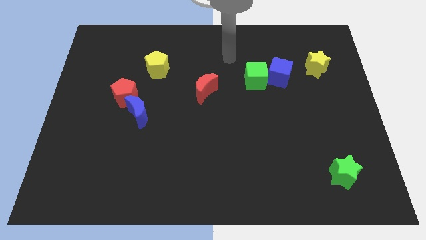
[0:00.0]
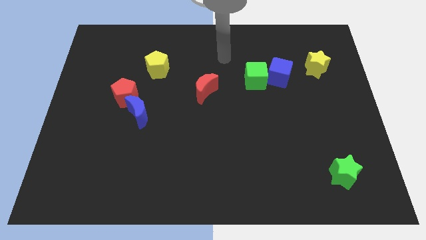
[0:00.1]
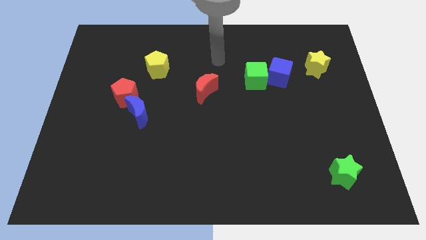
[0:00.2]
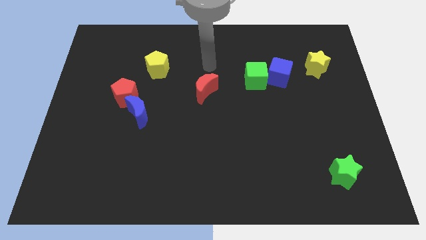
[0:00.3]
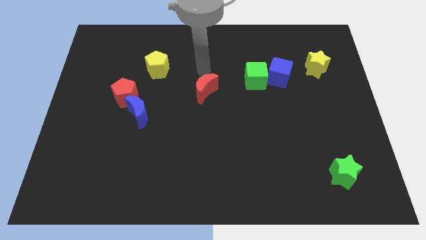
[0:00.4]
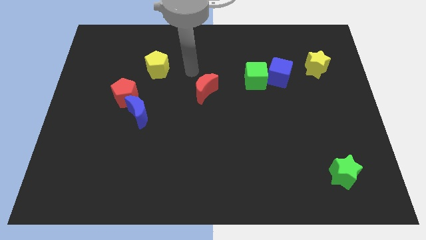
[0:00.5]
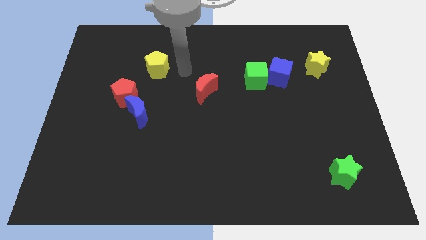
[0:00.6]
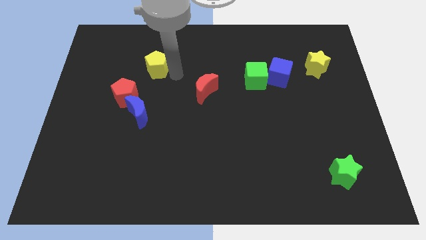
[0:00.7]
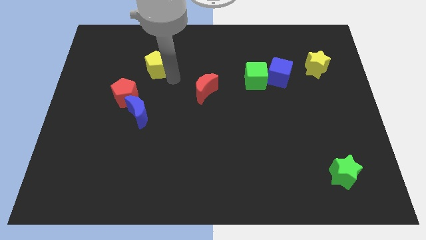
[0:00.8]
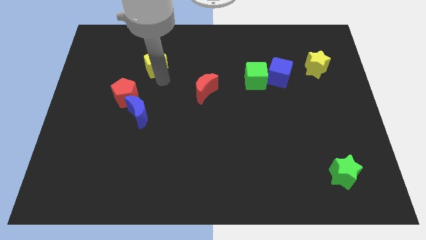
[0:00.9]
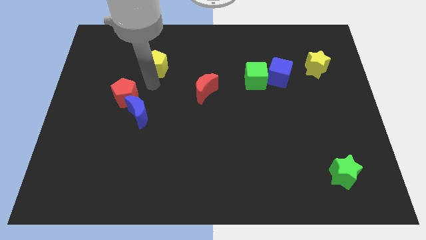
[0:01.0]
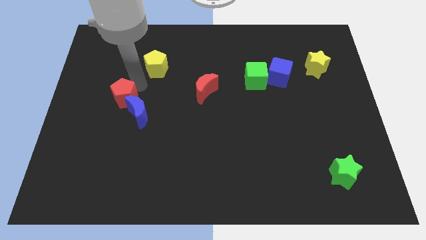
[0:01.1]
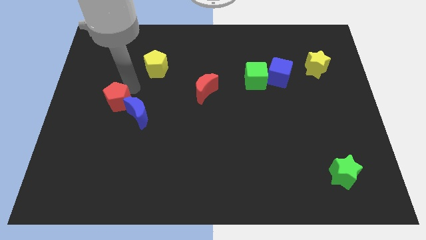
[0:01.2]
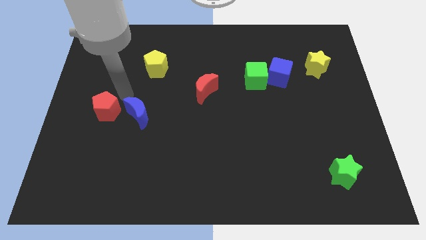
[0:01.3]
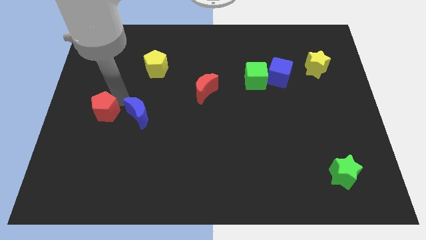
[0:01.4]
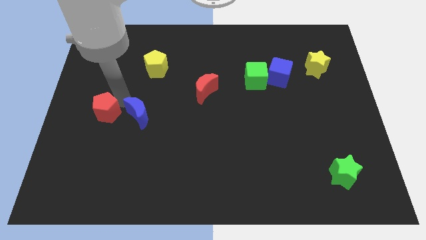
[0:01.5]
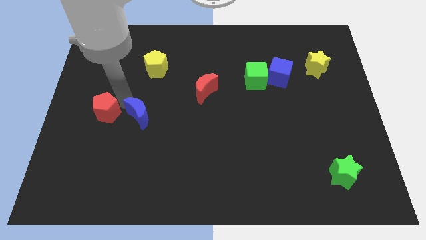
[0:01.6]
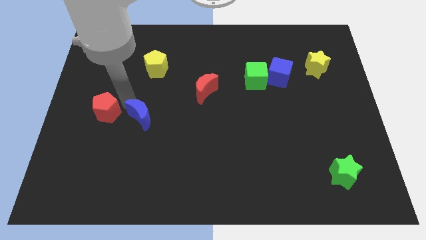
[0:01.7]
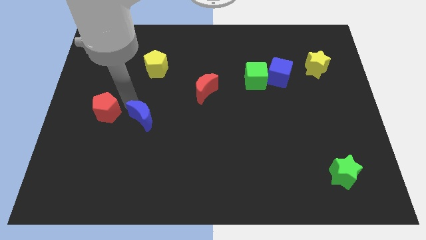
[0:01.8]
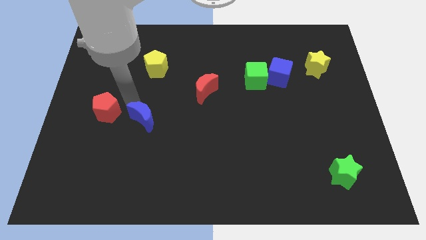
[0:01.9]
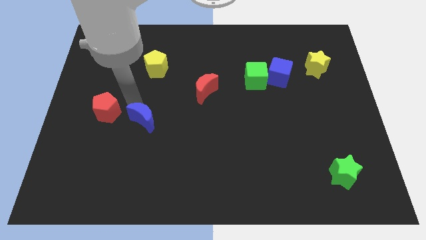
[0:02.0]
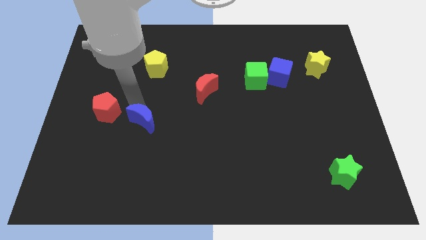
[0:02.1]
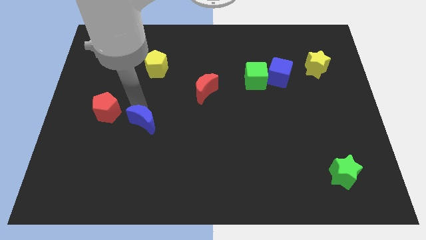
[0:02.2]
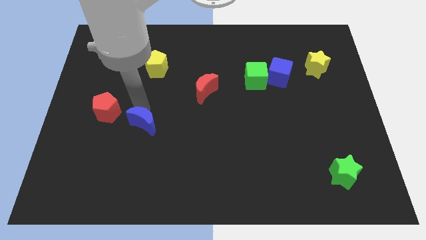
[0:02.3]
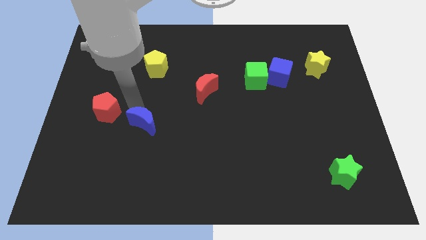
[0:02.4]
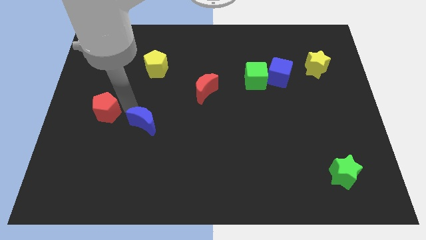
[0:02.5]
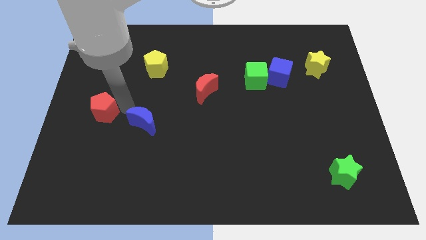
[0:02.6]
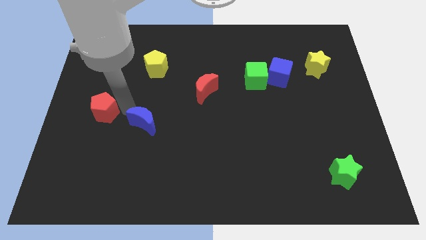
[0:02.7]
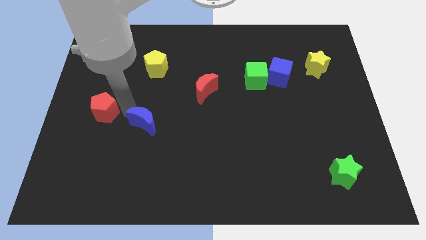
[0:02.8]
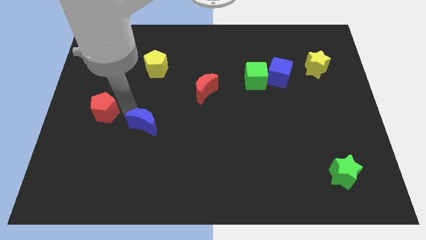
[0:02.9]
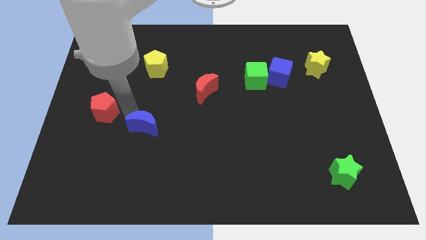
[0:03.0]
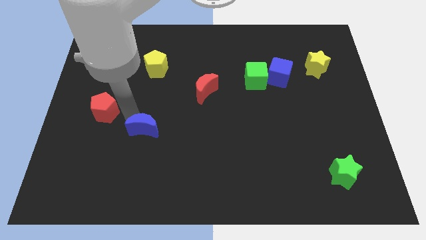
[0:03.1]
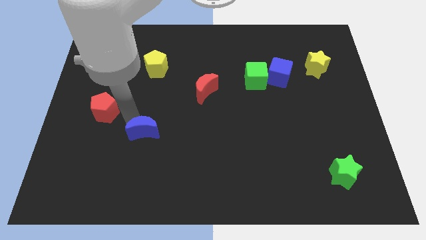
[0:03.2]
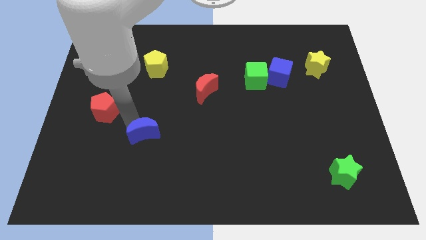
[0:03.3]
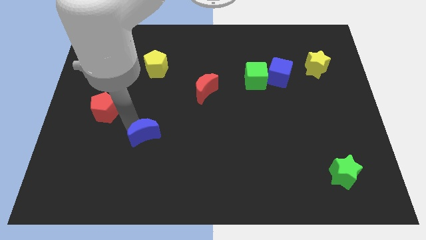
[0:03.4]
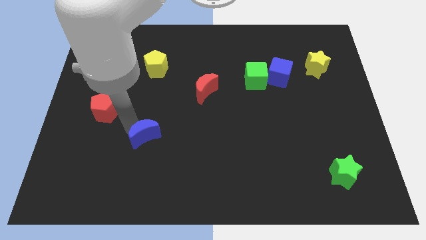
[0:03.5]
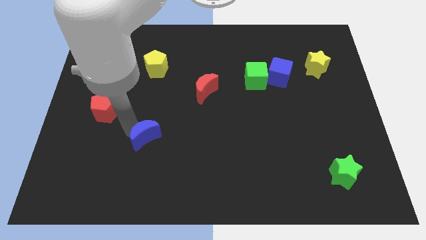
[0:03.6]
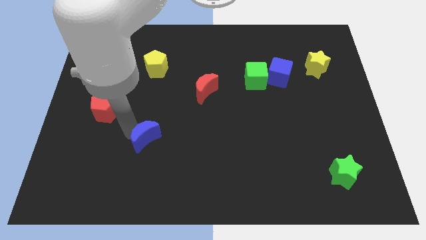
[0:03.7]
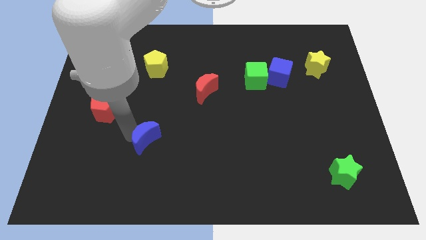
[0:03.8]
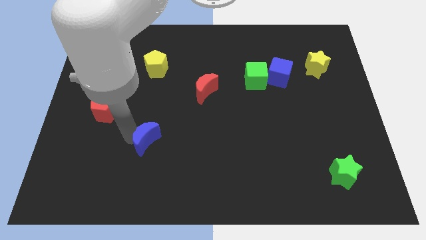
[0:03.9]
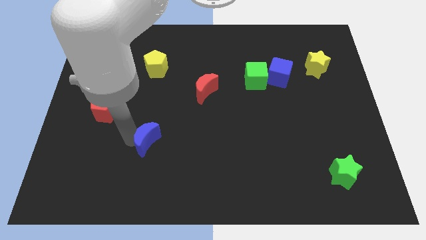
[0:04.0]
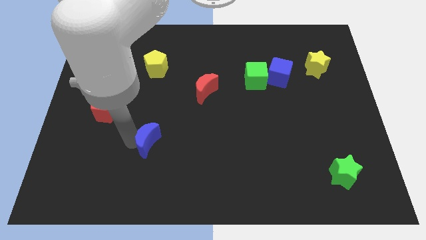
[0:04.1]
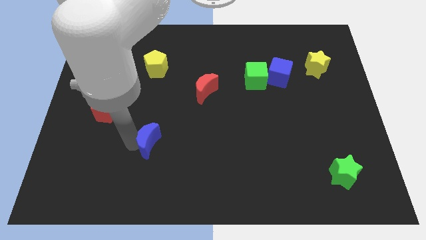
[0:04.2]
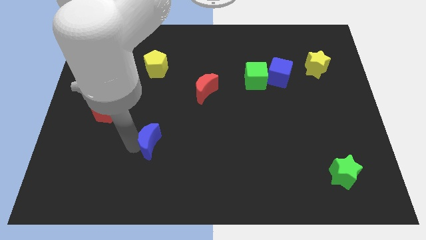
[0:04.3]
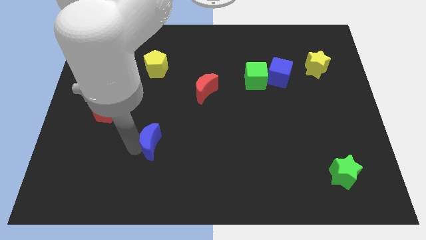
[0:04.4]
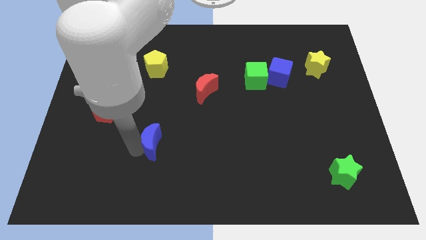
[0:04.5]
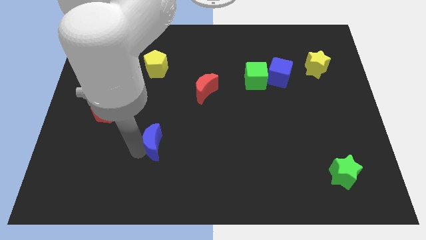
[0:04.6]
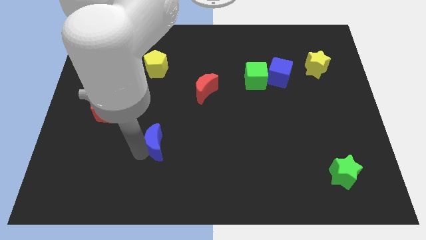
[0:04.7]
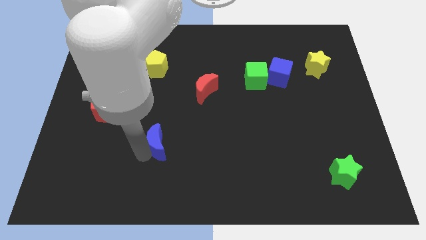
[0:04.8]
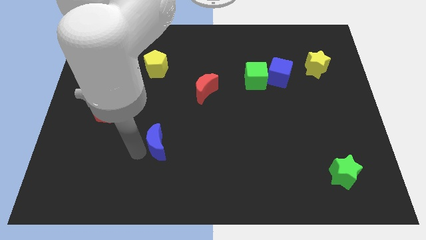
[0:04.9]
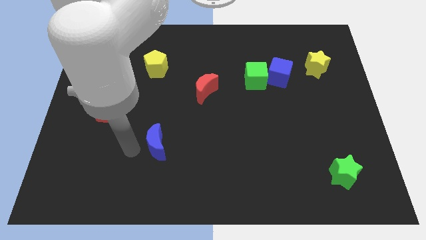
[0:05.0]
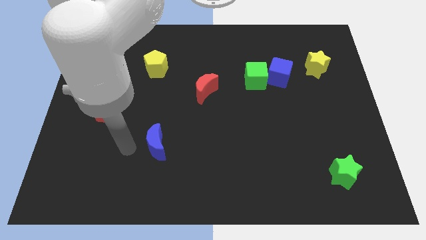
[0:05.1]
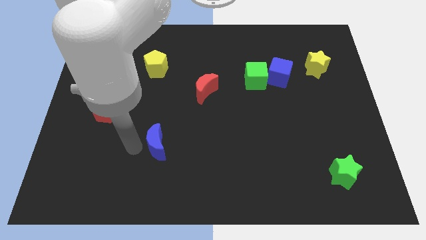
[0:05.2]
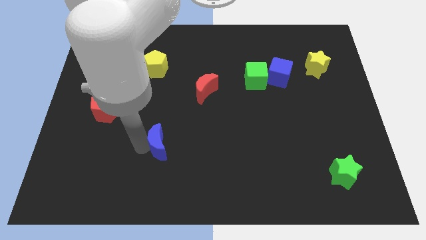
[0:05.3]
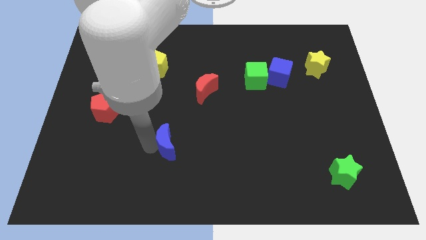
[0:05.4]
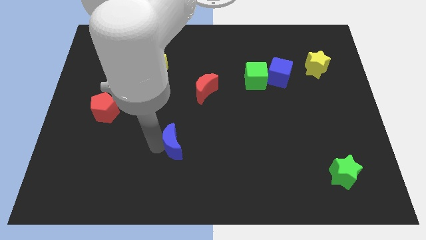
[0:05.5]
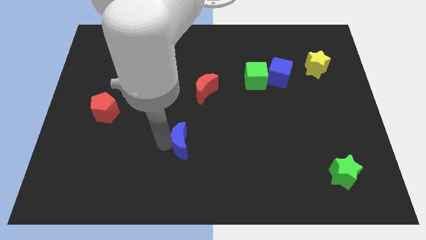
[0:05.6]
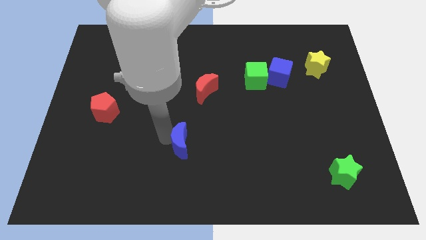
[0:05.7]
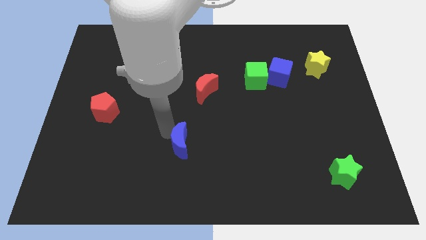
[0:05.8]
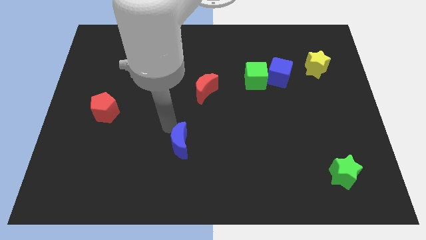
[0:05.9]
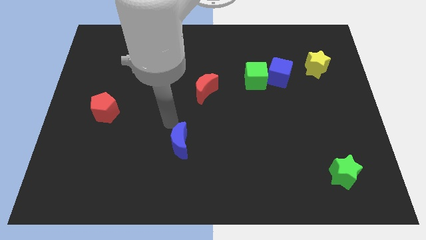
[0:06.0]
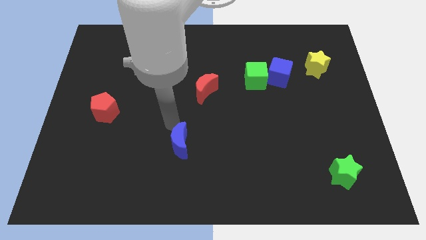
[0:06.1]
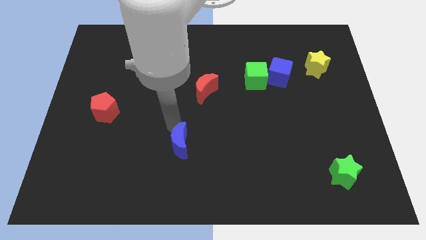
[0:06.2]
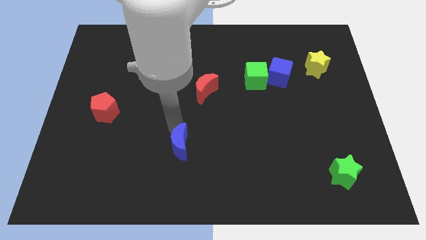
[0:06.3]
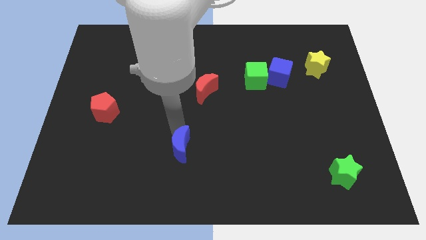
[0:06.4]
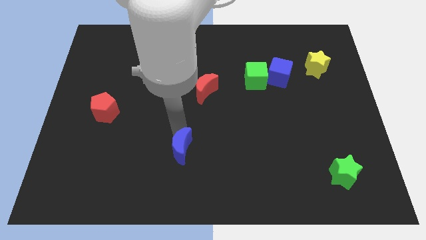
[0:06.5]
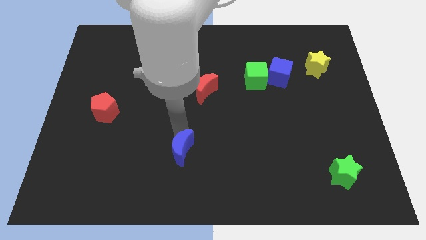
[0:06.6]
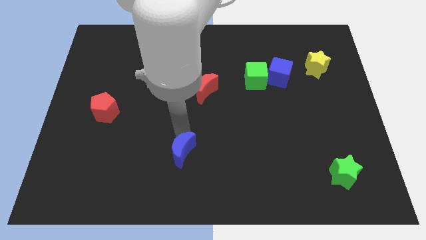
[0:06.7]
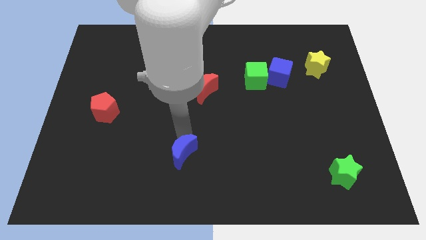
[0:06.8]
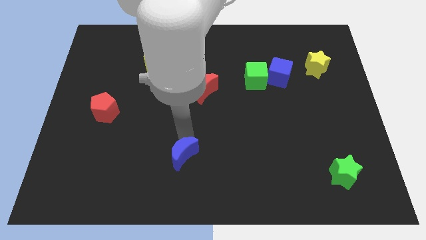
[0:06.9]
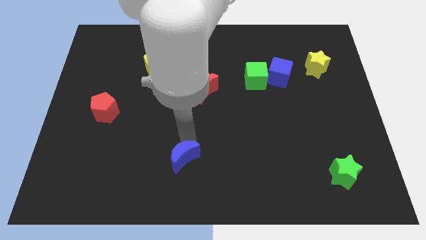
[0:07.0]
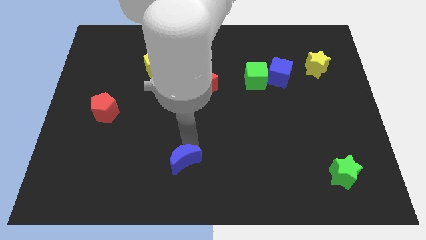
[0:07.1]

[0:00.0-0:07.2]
slide the blue moon to the bottom
